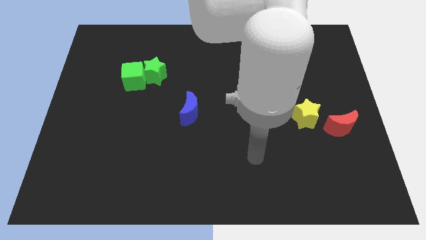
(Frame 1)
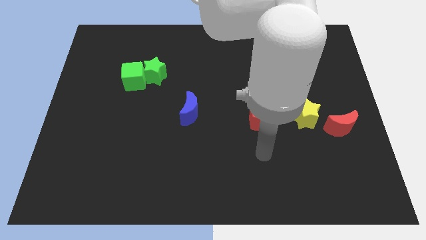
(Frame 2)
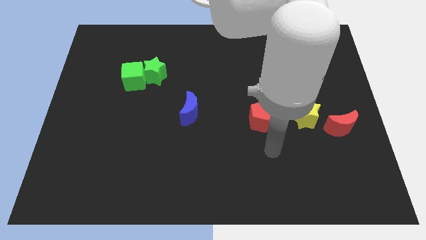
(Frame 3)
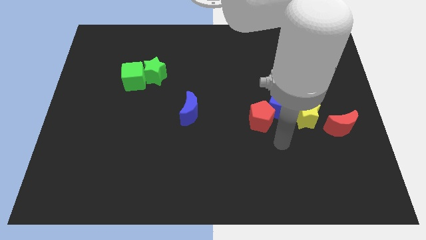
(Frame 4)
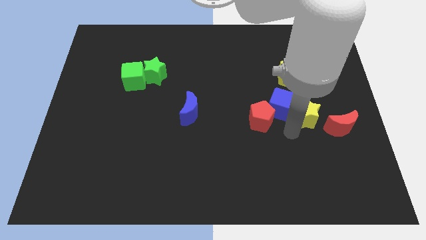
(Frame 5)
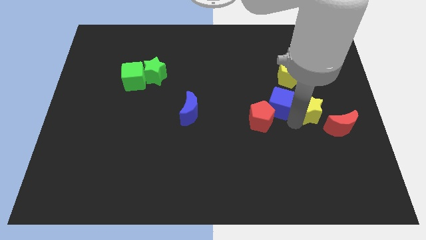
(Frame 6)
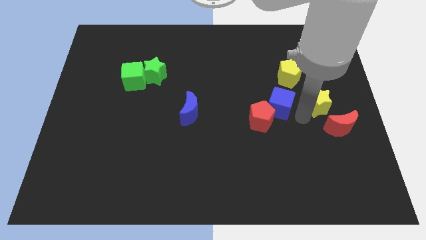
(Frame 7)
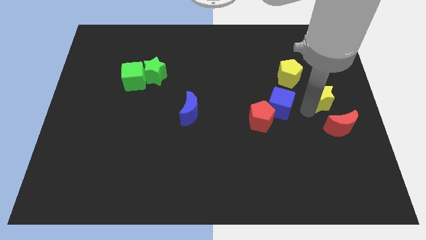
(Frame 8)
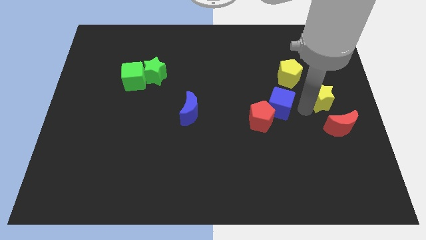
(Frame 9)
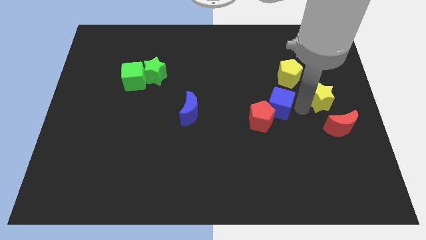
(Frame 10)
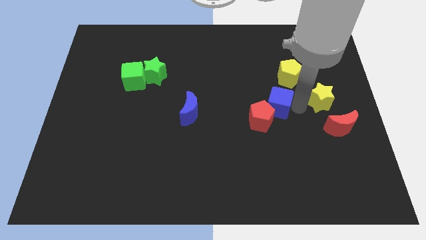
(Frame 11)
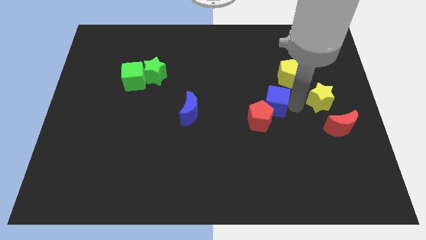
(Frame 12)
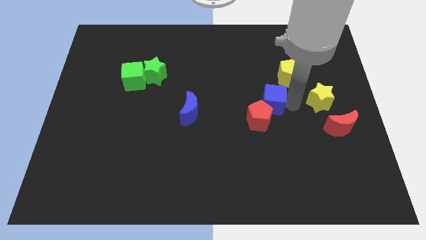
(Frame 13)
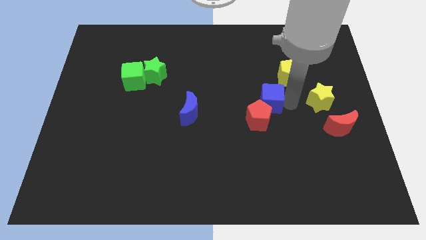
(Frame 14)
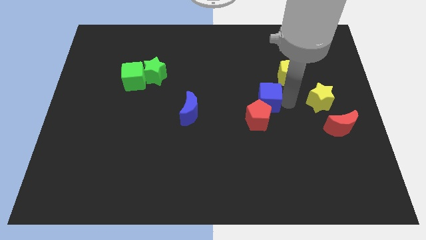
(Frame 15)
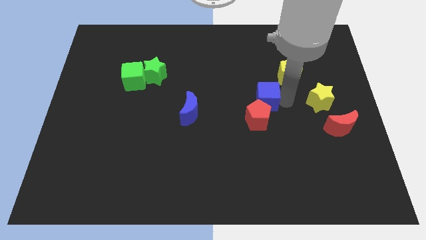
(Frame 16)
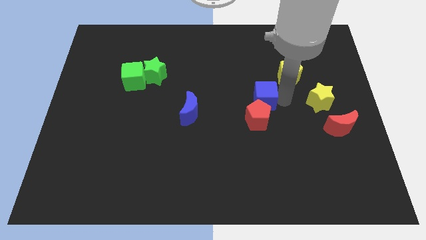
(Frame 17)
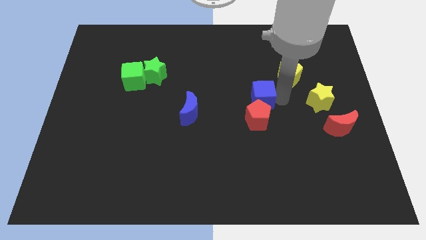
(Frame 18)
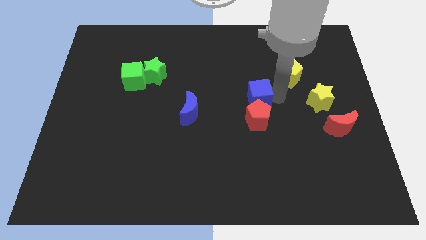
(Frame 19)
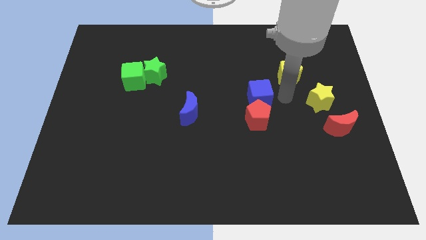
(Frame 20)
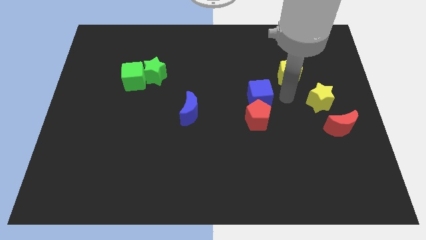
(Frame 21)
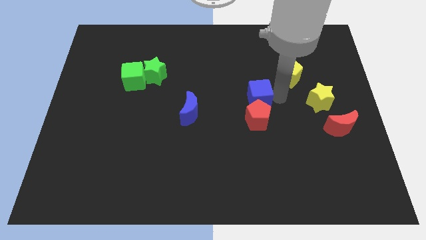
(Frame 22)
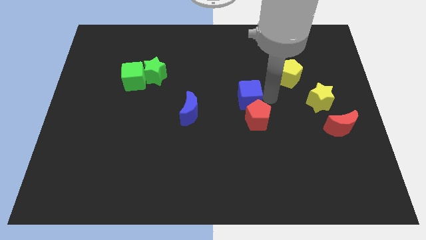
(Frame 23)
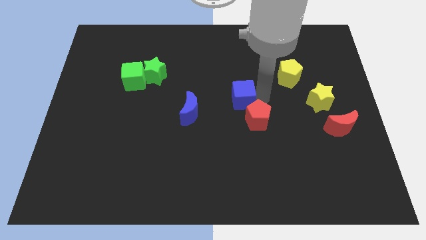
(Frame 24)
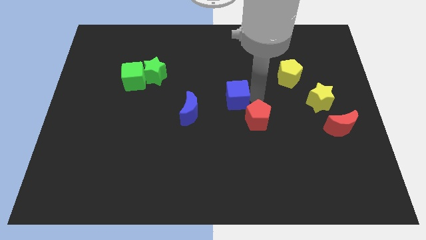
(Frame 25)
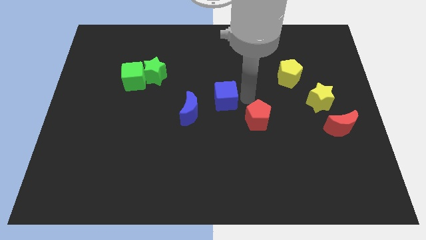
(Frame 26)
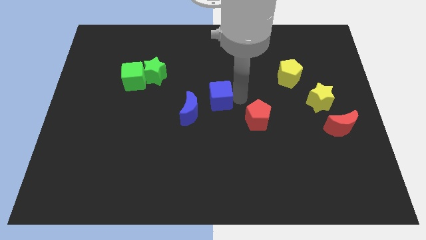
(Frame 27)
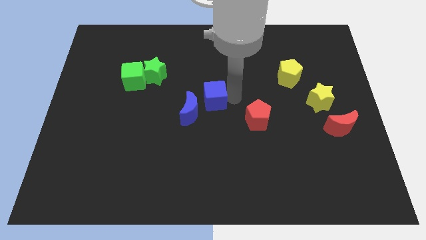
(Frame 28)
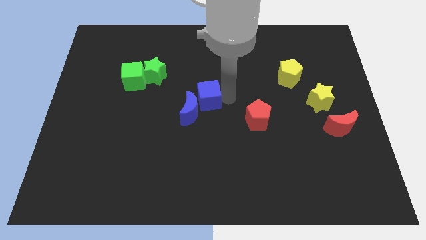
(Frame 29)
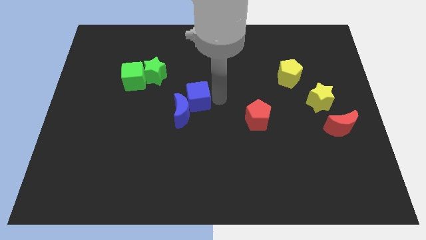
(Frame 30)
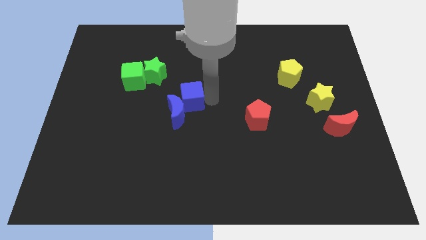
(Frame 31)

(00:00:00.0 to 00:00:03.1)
move the blue cube left

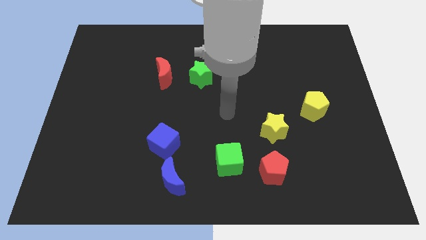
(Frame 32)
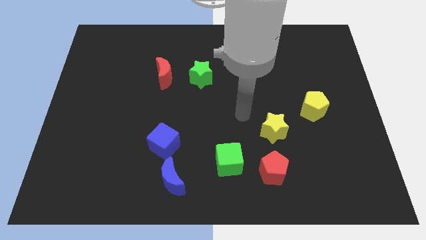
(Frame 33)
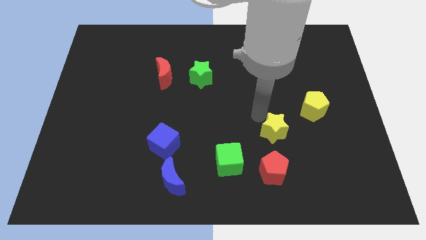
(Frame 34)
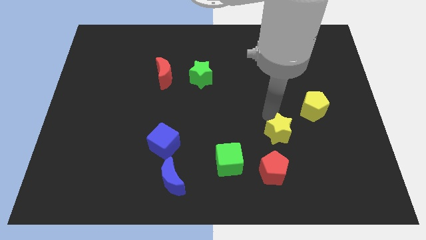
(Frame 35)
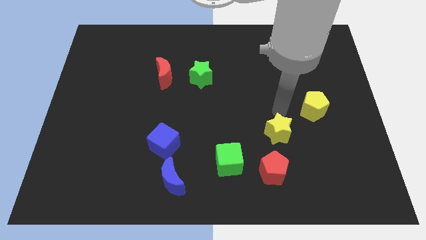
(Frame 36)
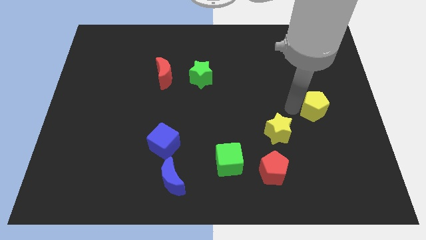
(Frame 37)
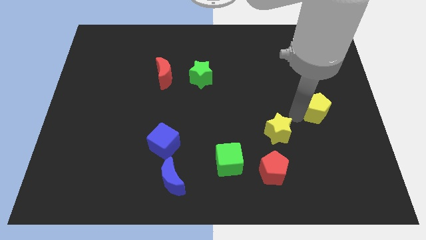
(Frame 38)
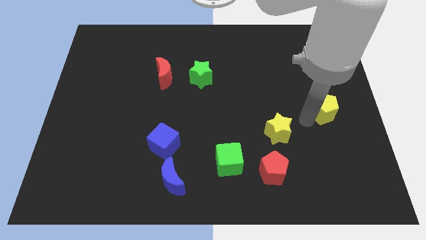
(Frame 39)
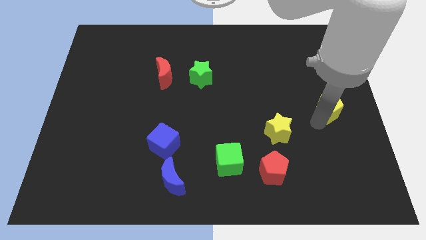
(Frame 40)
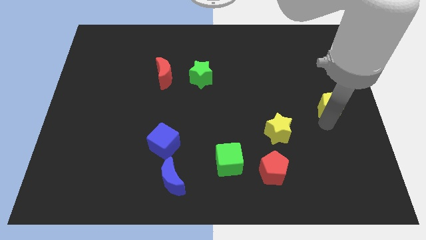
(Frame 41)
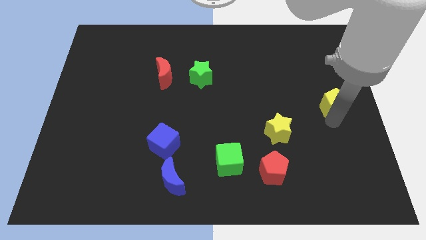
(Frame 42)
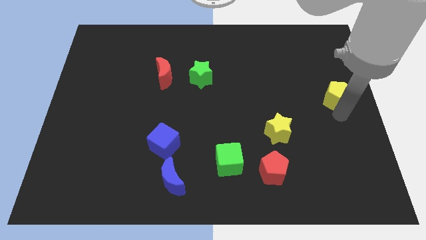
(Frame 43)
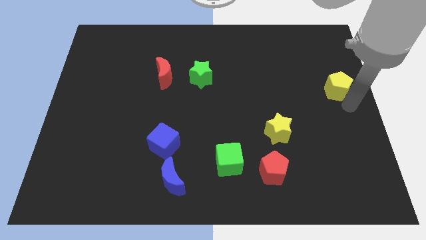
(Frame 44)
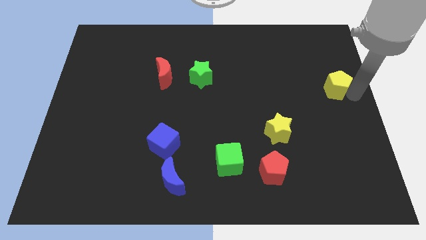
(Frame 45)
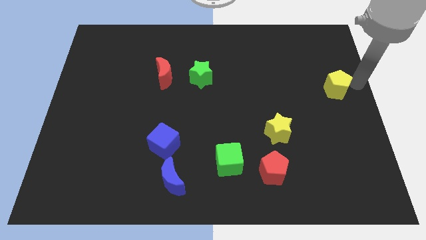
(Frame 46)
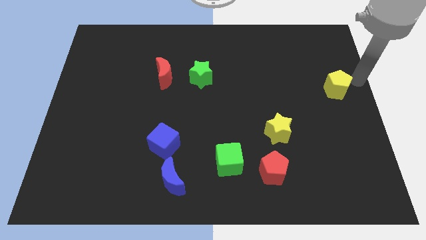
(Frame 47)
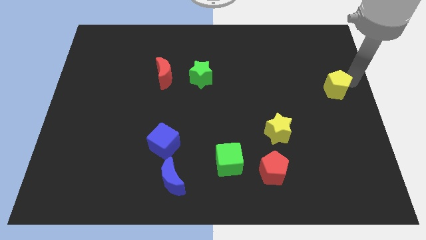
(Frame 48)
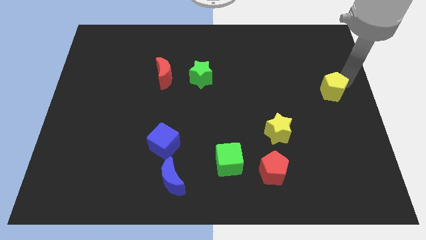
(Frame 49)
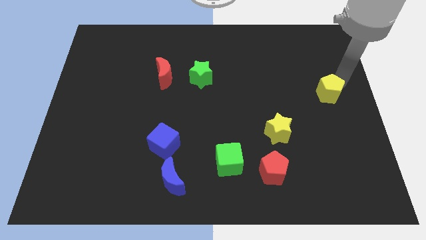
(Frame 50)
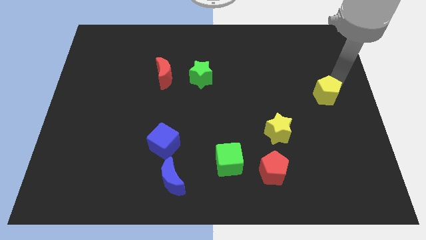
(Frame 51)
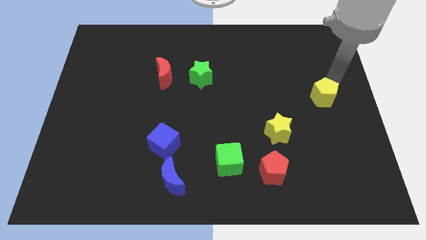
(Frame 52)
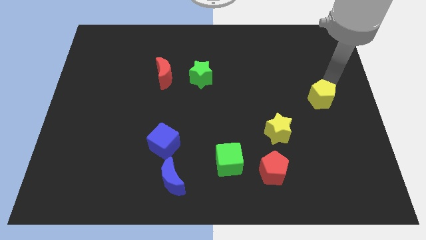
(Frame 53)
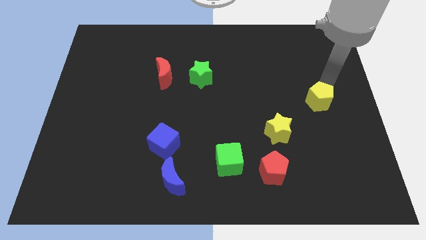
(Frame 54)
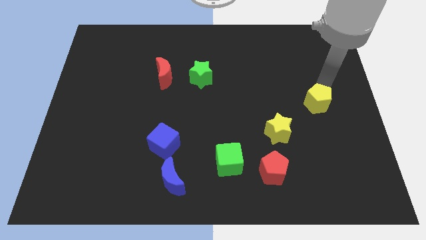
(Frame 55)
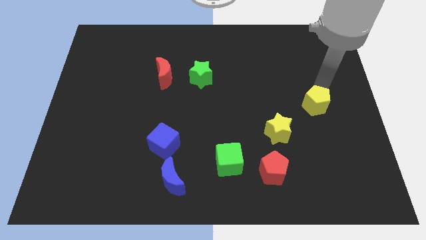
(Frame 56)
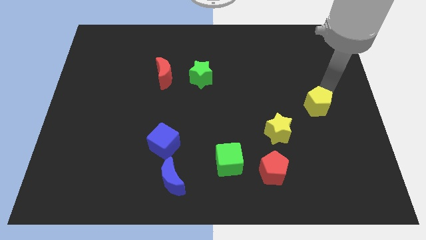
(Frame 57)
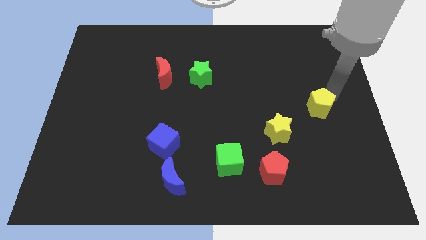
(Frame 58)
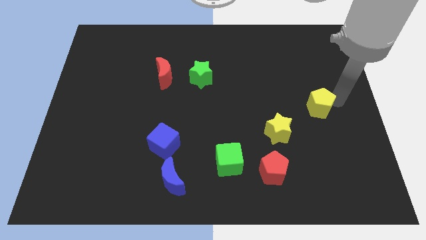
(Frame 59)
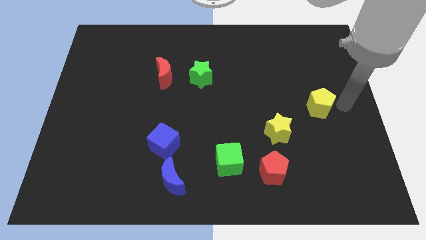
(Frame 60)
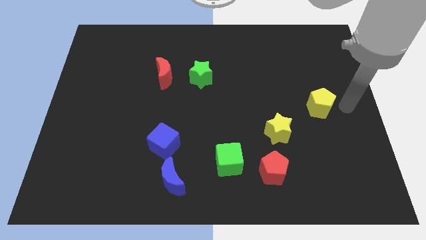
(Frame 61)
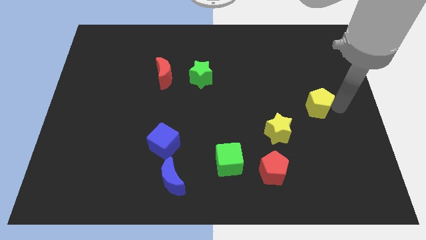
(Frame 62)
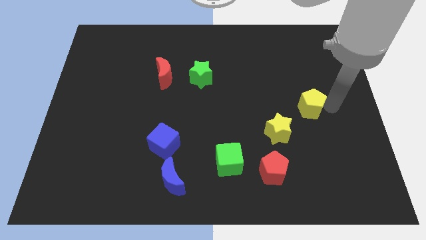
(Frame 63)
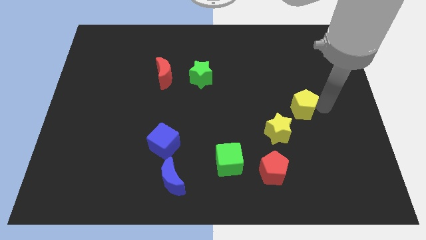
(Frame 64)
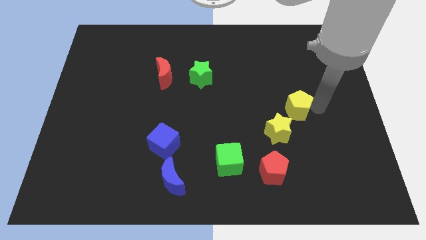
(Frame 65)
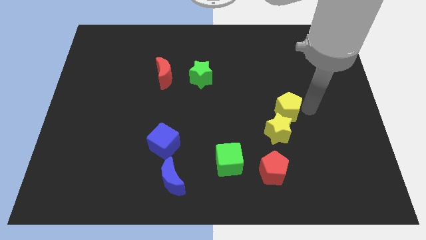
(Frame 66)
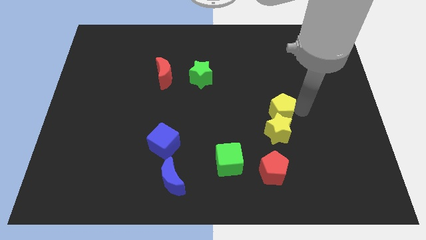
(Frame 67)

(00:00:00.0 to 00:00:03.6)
slide the yellow pentagon left a bit

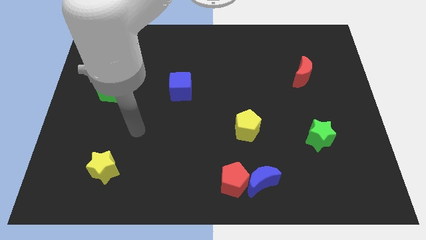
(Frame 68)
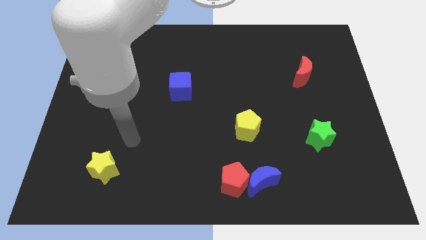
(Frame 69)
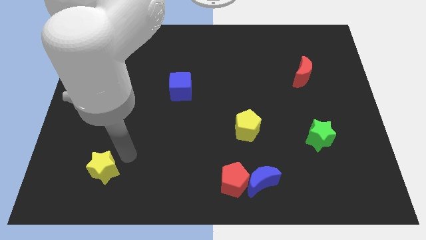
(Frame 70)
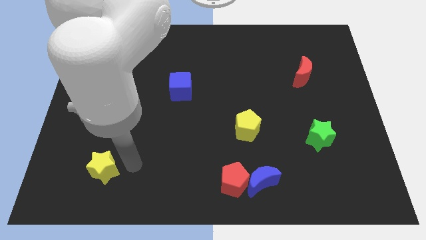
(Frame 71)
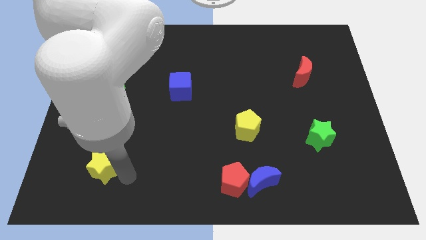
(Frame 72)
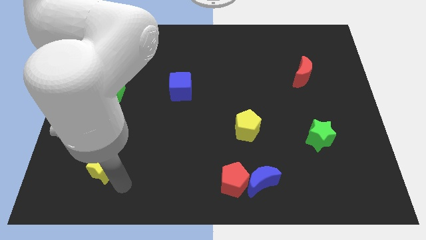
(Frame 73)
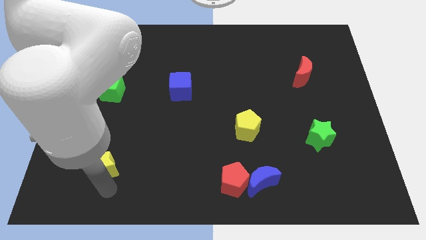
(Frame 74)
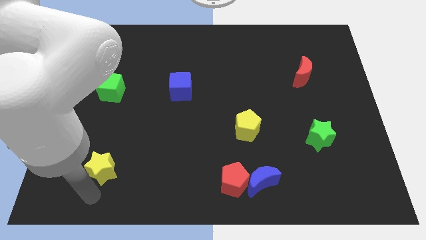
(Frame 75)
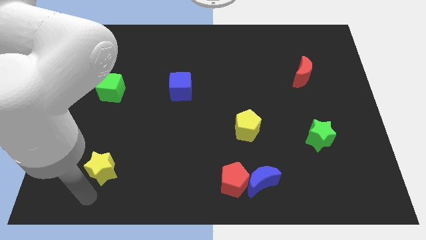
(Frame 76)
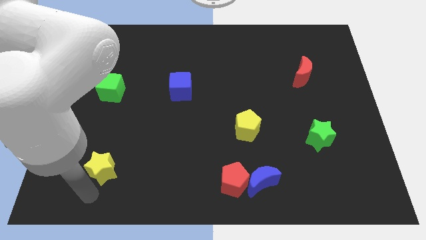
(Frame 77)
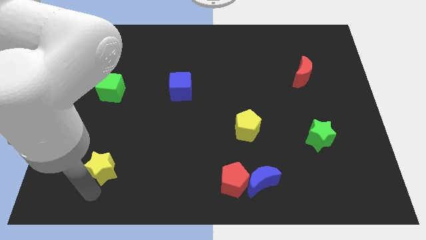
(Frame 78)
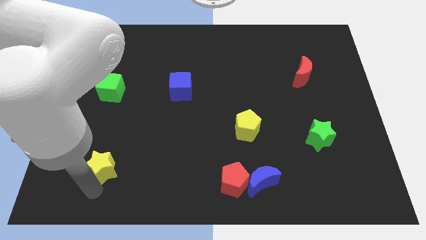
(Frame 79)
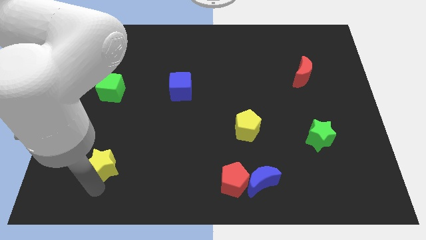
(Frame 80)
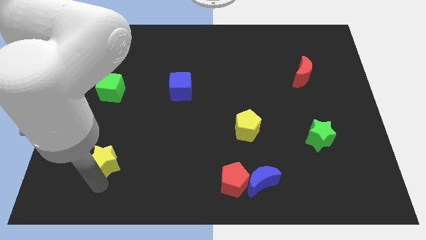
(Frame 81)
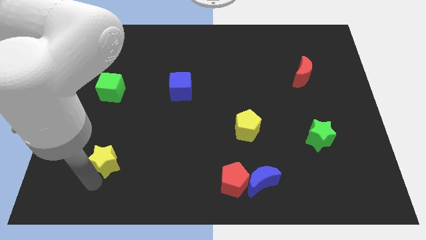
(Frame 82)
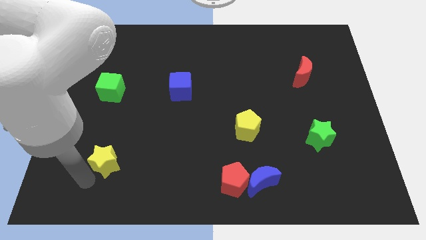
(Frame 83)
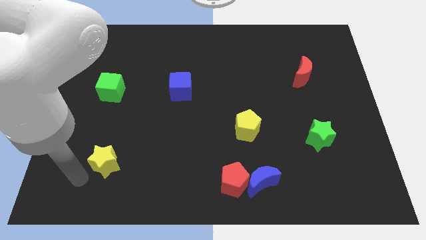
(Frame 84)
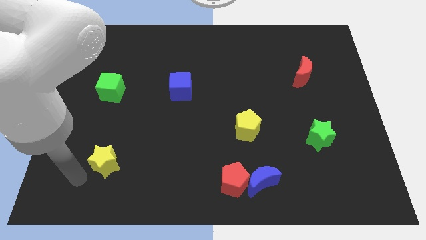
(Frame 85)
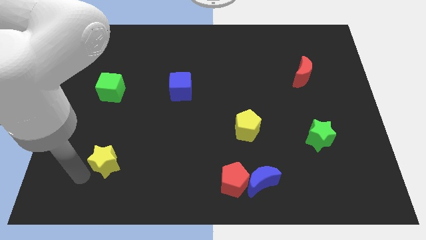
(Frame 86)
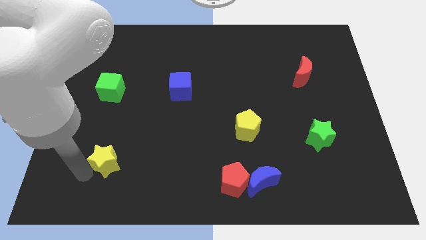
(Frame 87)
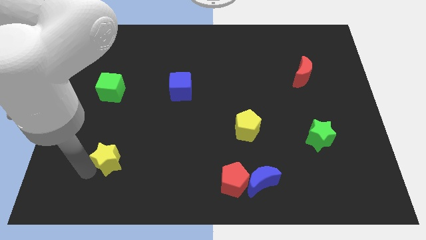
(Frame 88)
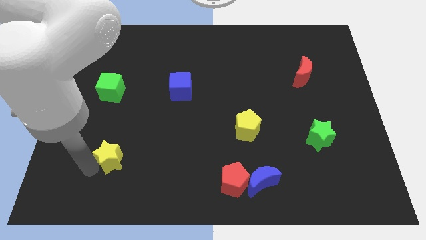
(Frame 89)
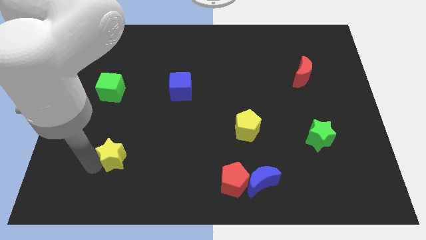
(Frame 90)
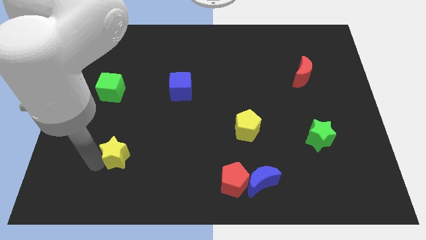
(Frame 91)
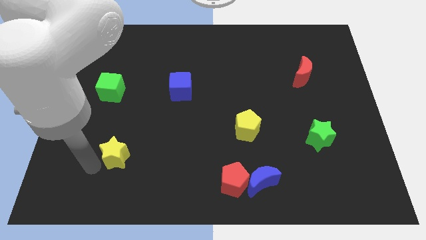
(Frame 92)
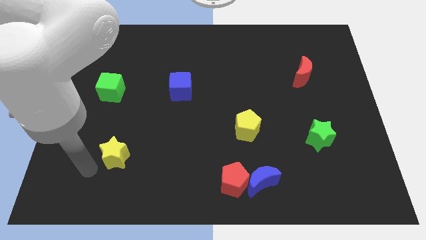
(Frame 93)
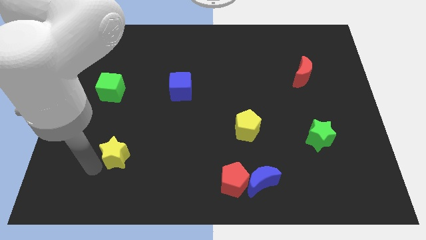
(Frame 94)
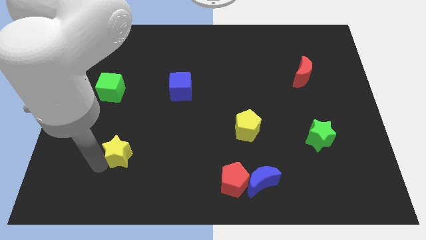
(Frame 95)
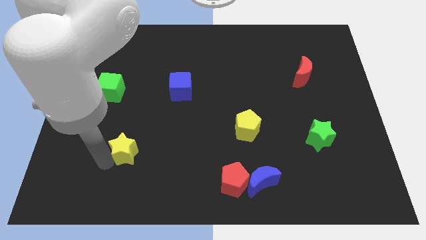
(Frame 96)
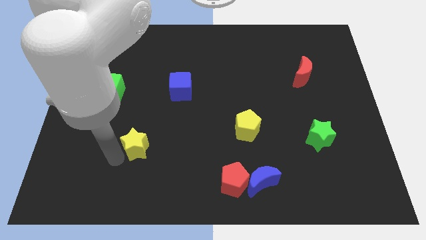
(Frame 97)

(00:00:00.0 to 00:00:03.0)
move the yellow star somewhat diagonally upwards and right
